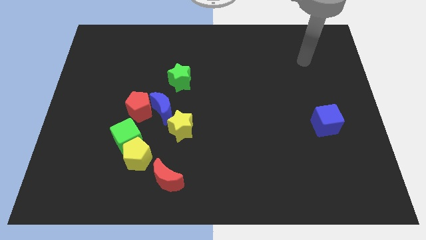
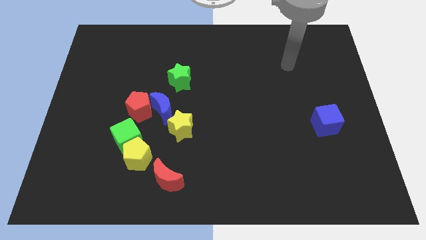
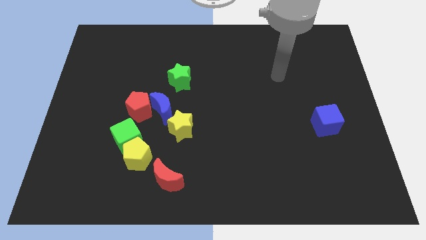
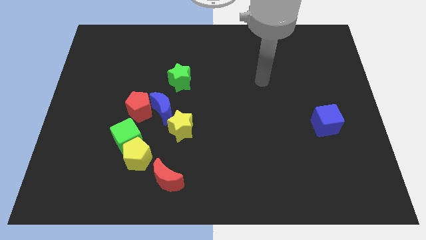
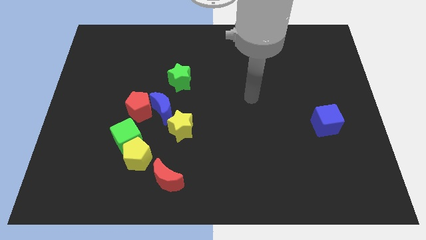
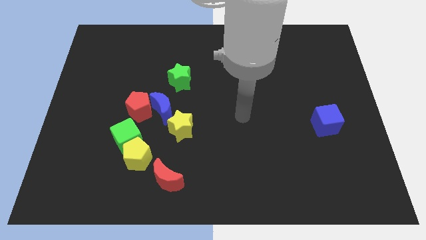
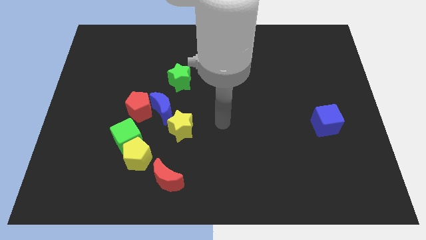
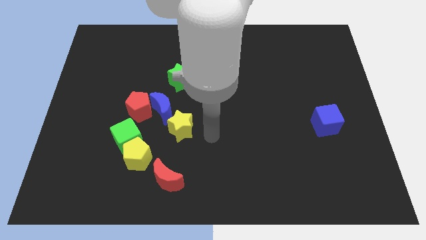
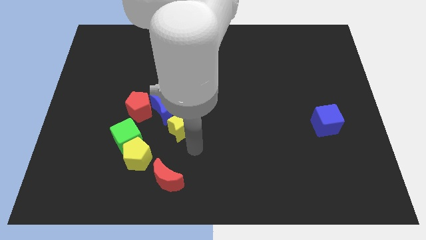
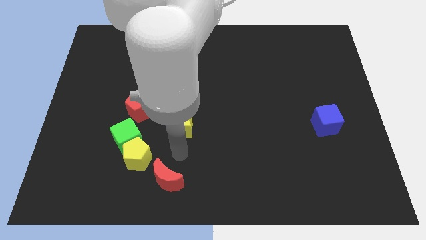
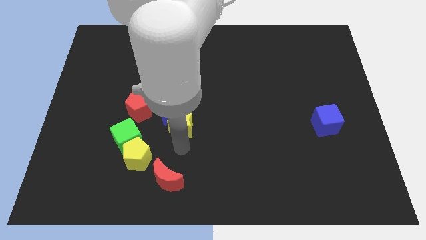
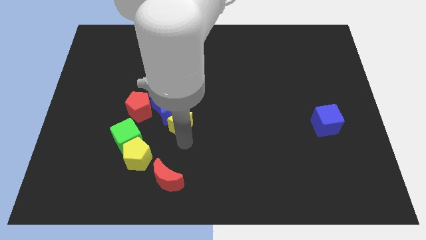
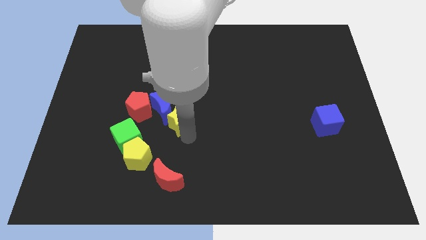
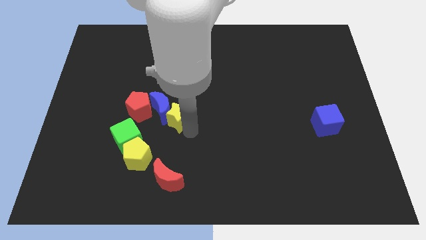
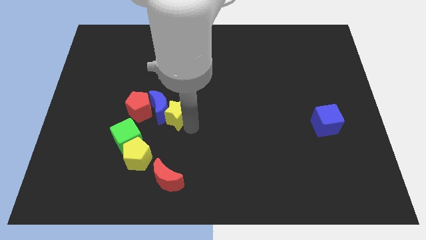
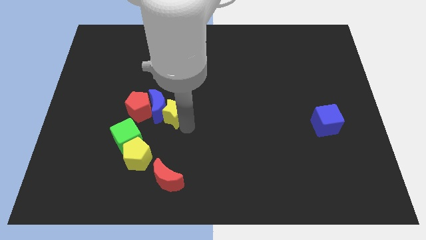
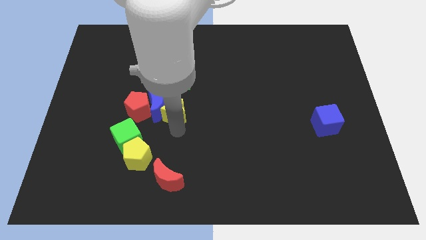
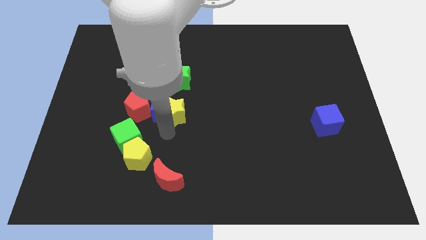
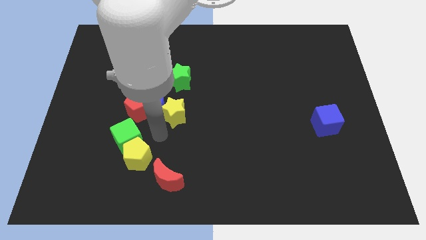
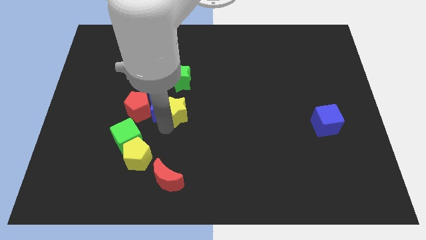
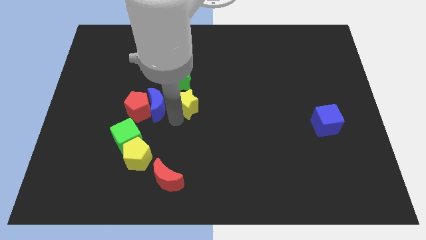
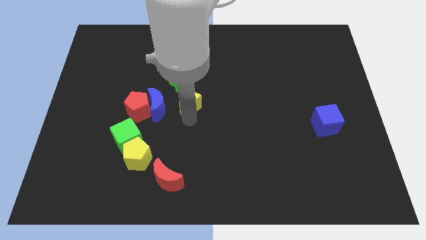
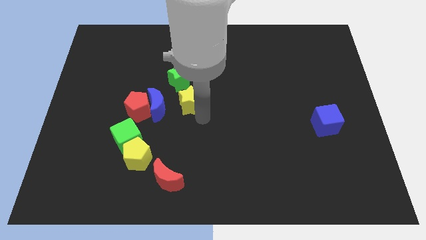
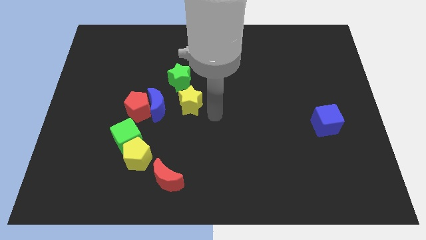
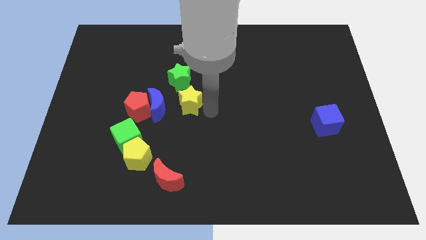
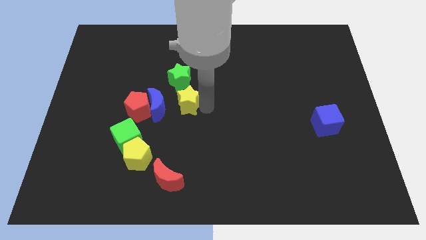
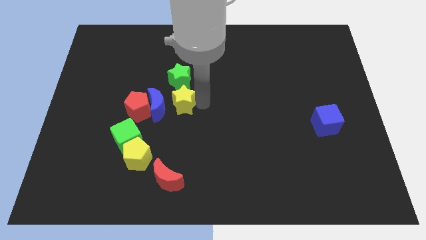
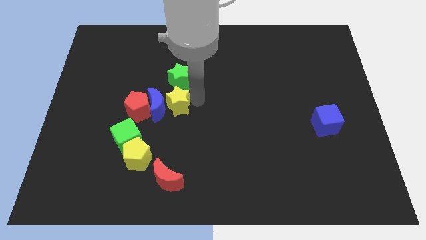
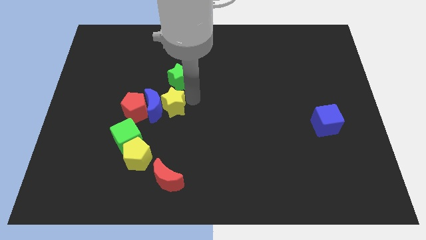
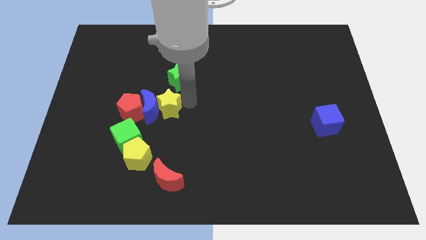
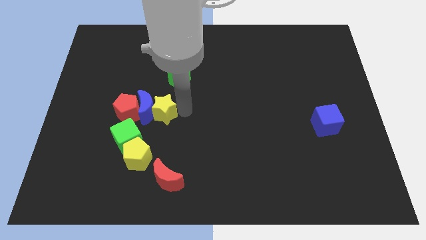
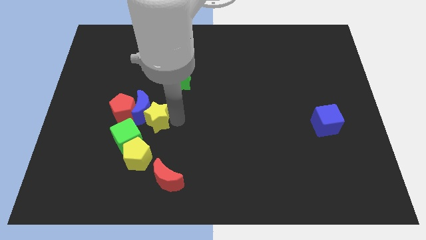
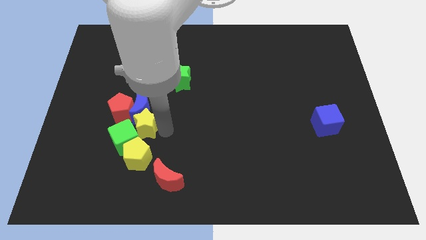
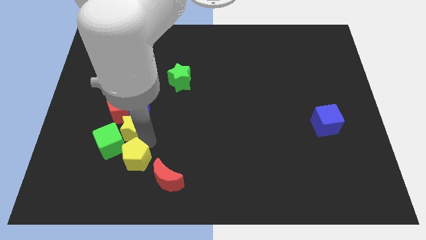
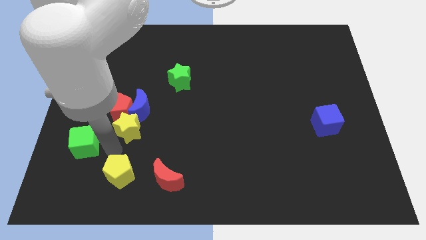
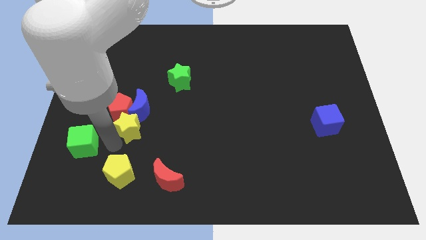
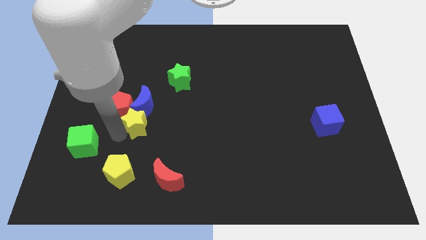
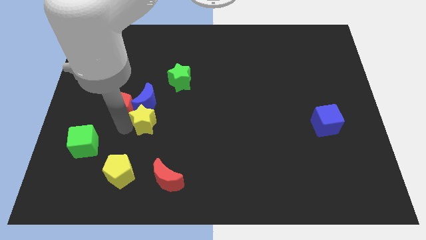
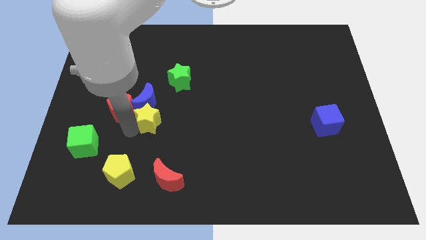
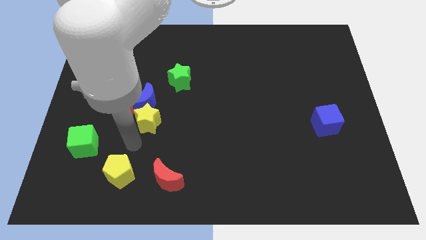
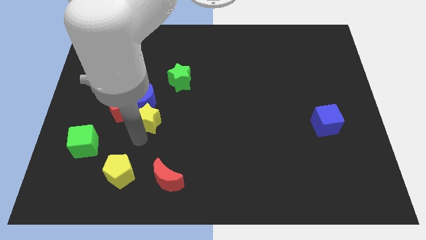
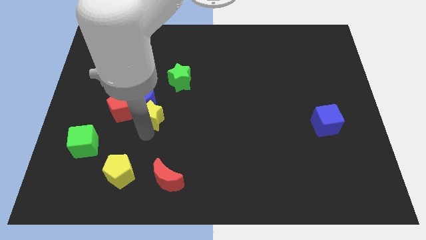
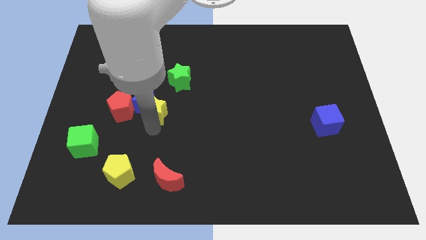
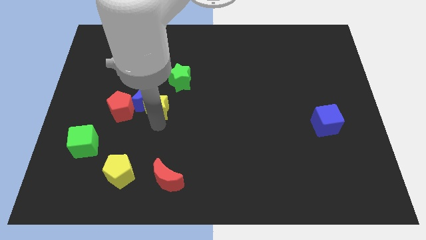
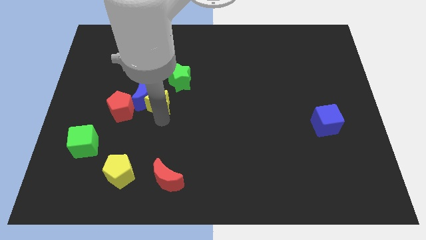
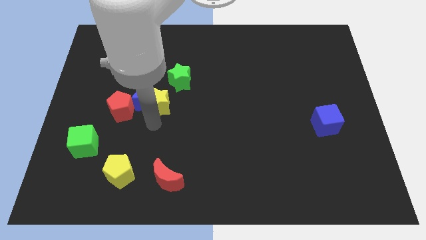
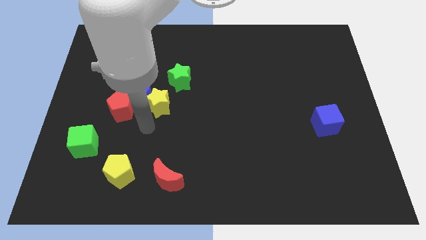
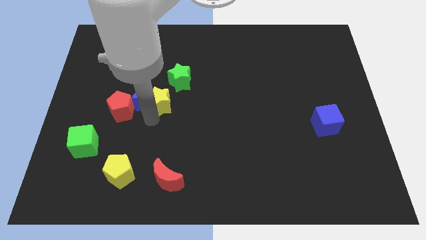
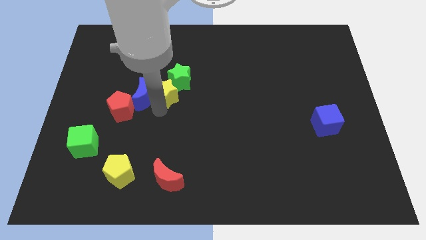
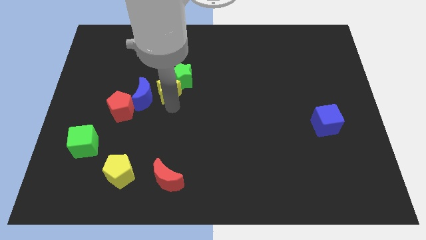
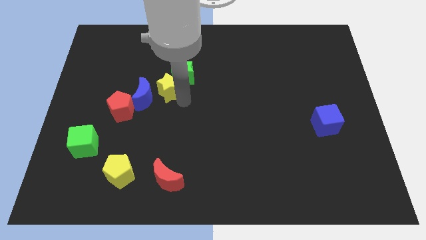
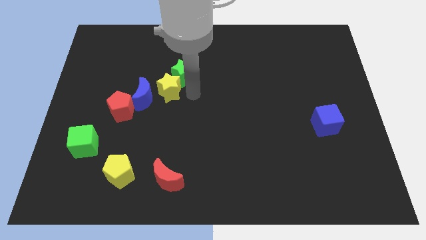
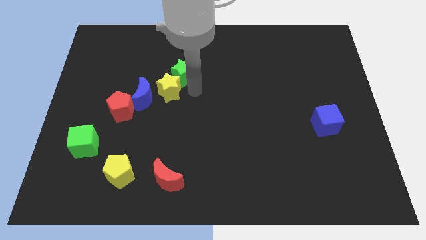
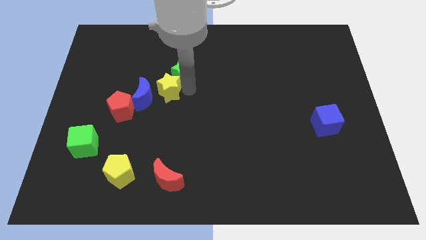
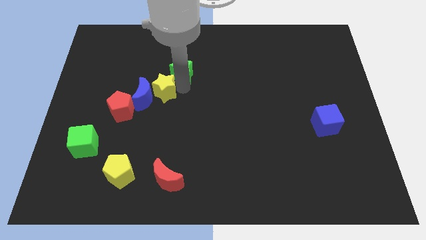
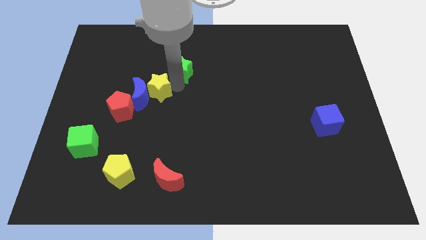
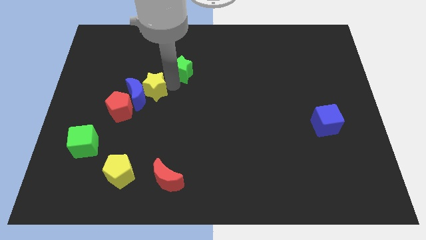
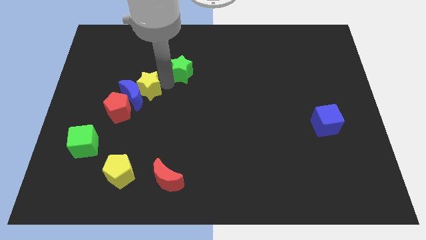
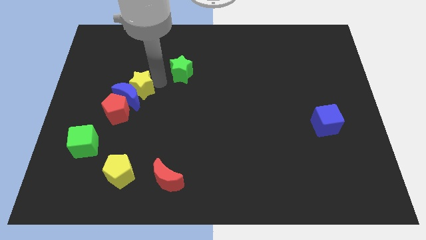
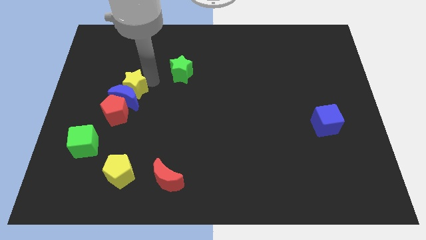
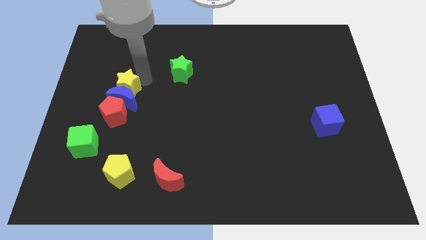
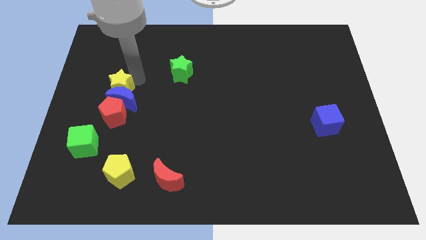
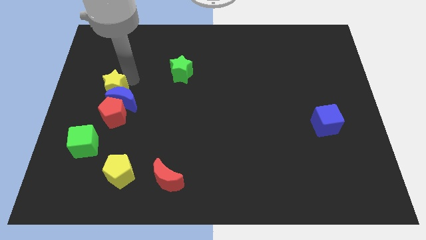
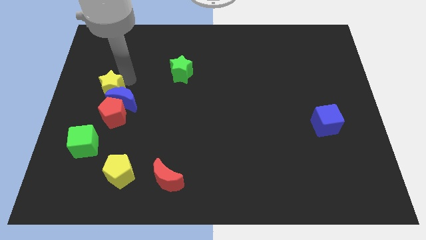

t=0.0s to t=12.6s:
slide the yellow star to the top left side of the red pentagon

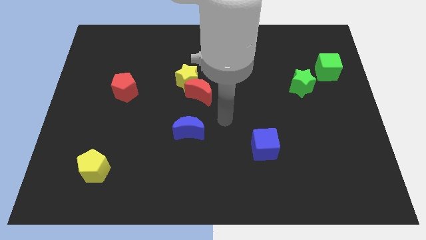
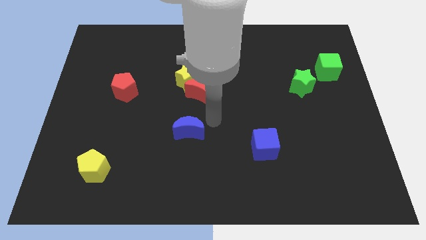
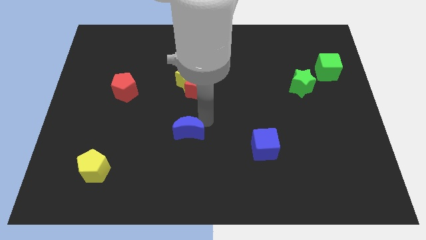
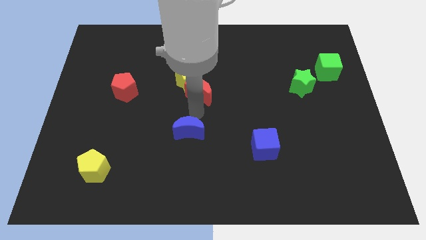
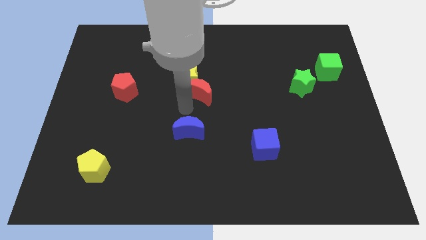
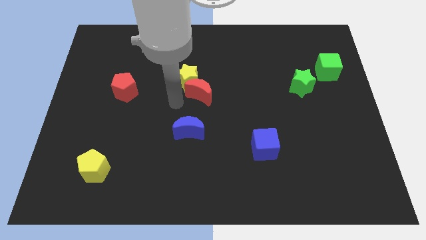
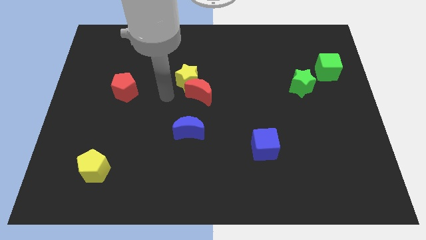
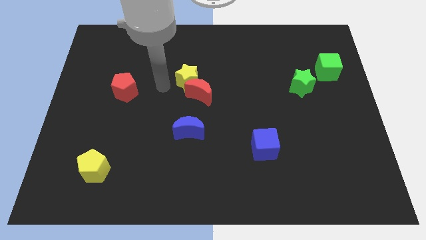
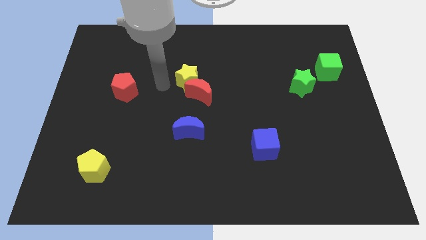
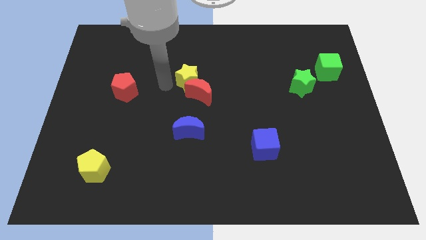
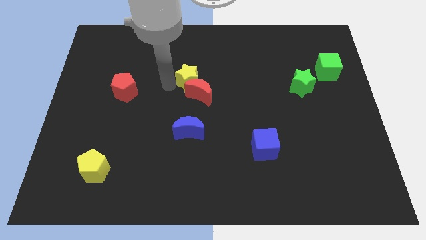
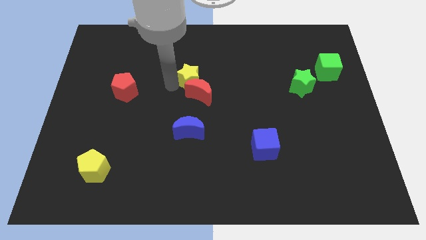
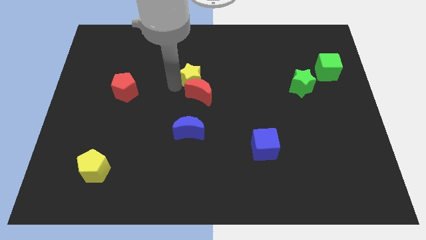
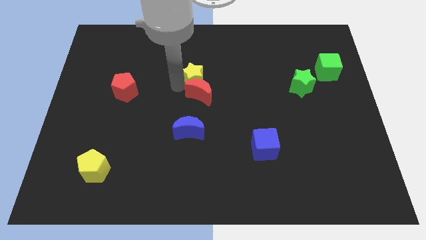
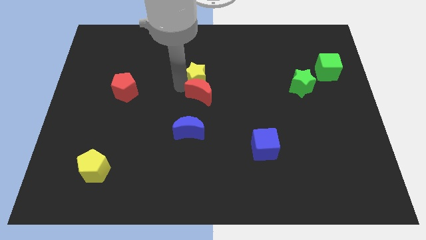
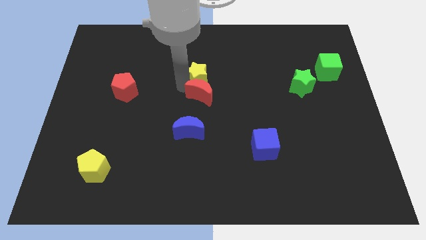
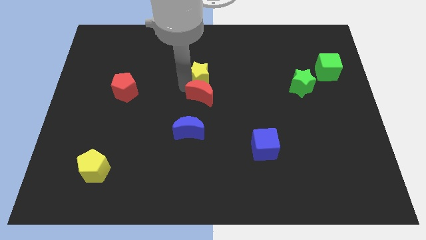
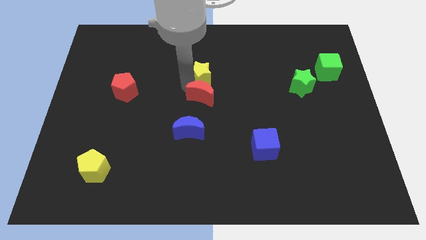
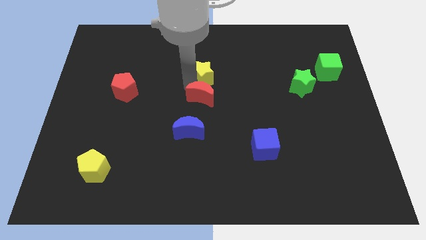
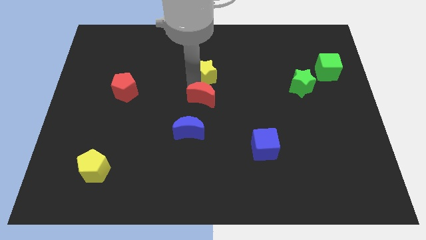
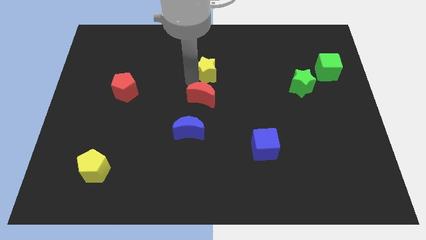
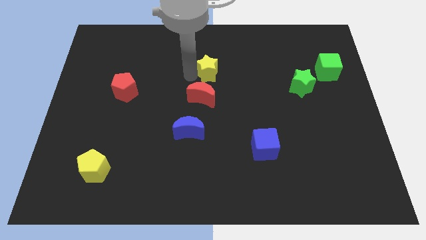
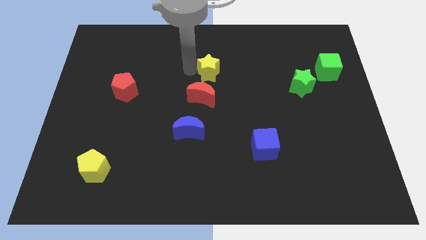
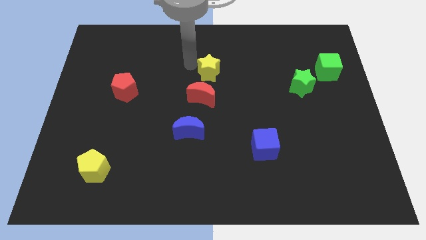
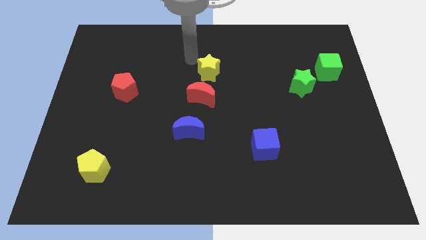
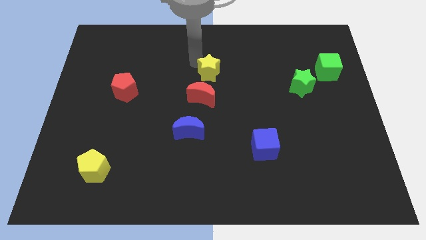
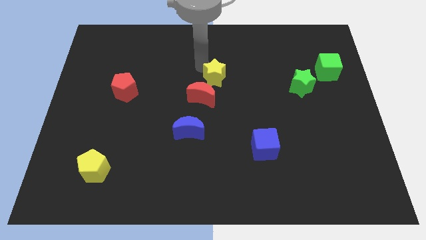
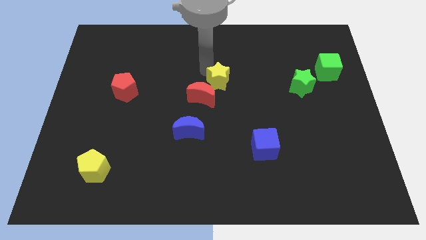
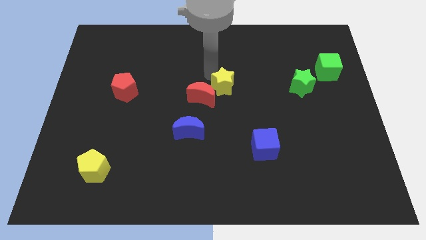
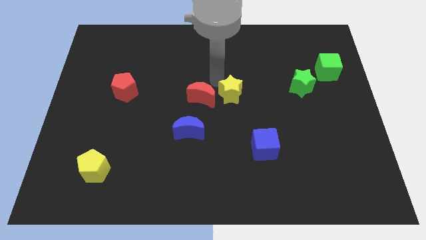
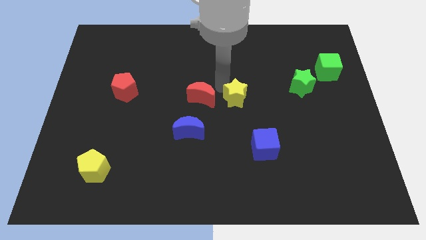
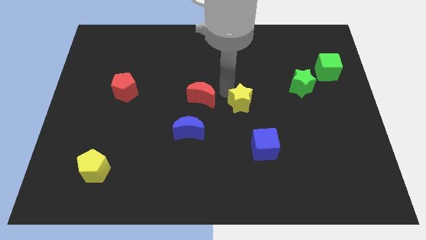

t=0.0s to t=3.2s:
push the yellow star to the top side of the blue cube
